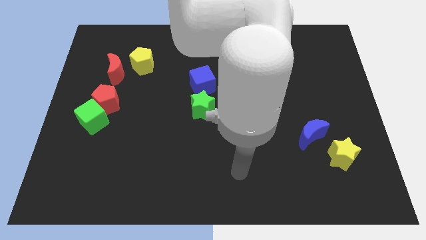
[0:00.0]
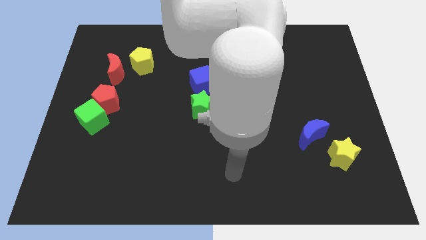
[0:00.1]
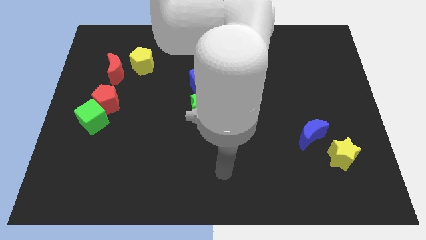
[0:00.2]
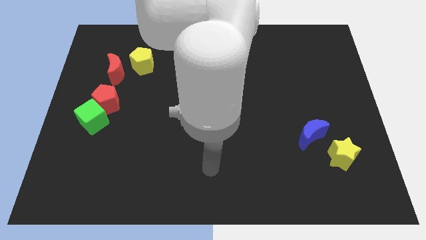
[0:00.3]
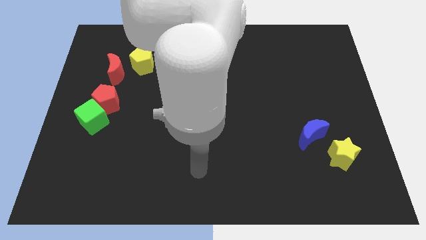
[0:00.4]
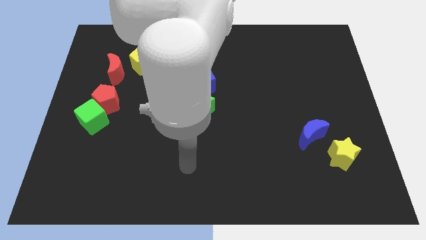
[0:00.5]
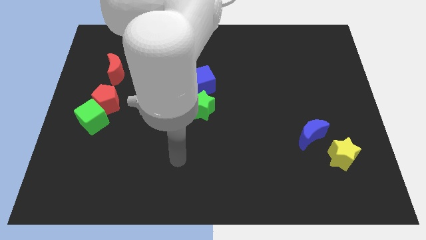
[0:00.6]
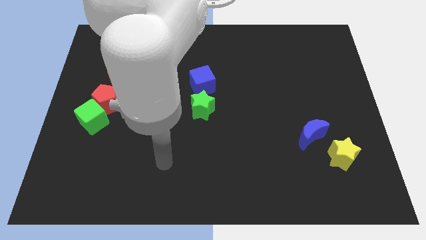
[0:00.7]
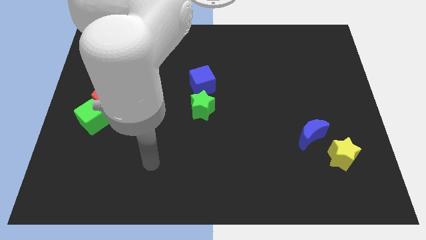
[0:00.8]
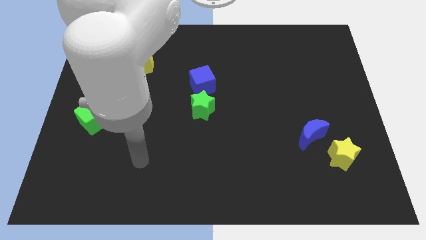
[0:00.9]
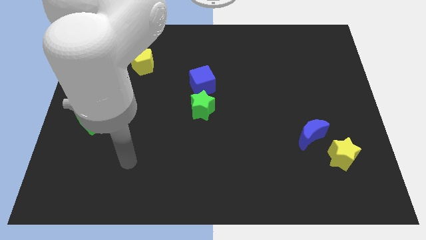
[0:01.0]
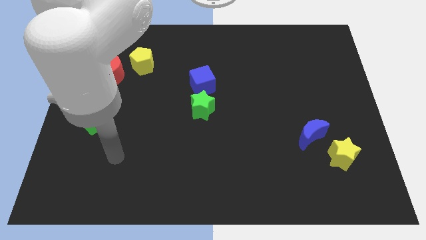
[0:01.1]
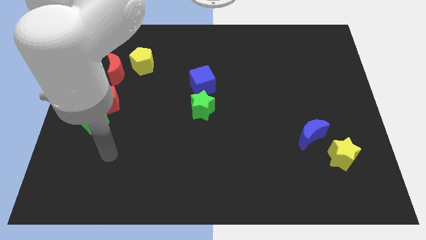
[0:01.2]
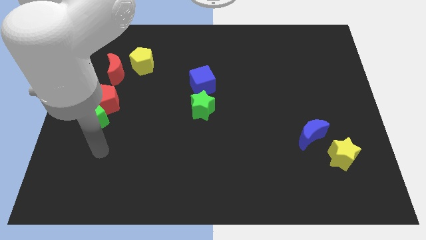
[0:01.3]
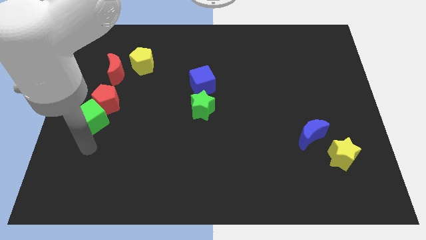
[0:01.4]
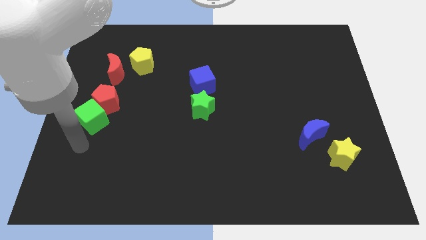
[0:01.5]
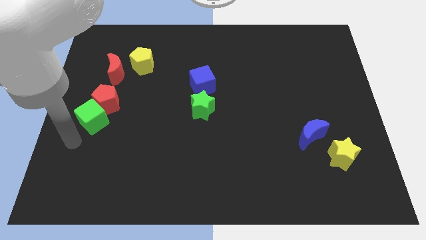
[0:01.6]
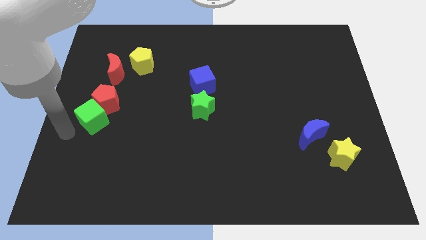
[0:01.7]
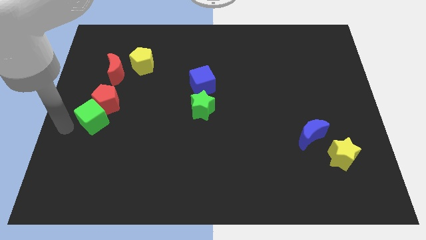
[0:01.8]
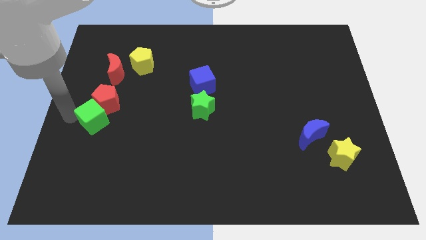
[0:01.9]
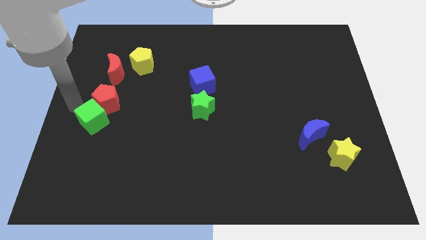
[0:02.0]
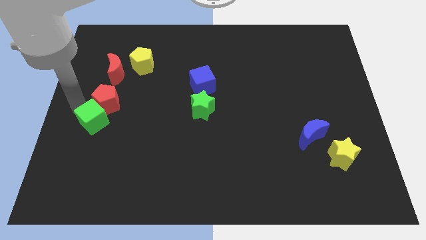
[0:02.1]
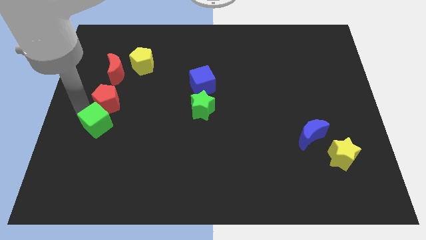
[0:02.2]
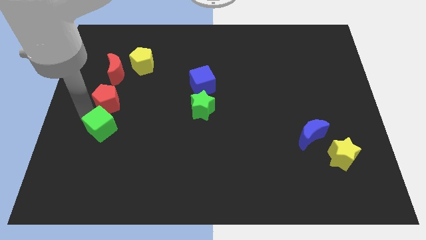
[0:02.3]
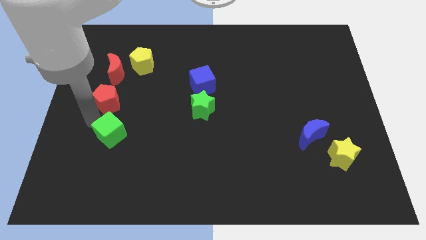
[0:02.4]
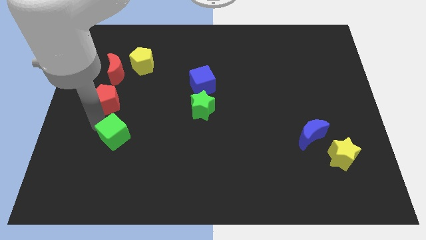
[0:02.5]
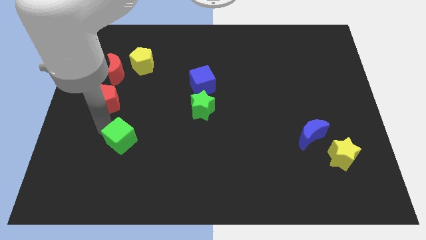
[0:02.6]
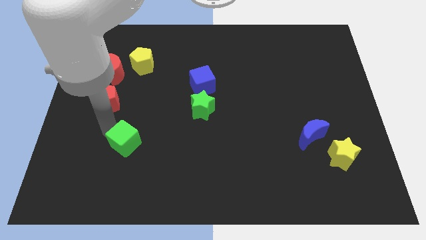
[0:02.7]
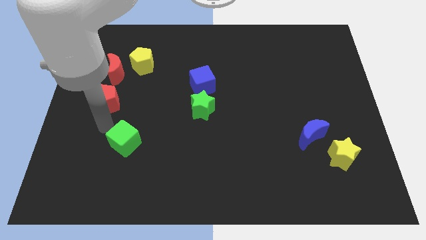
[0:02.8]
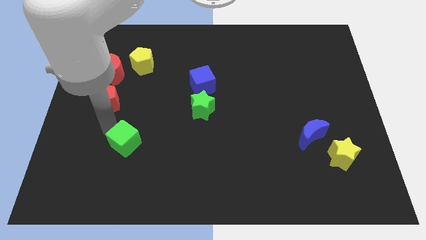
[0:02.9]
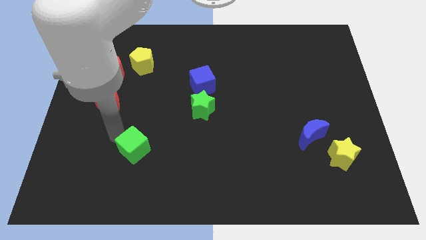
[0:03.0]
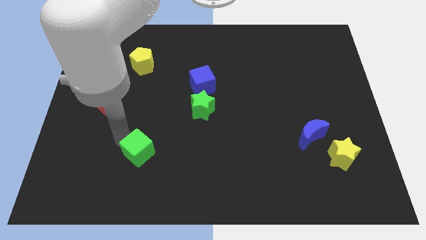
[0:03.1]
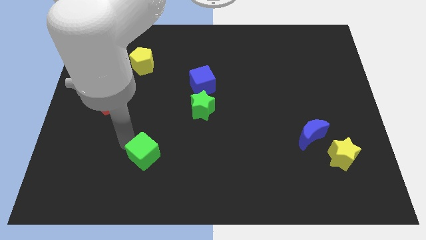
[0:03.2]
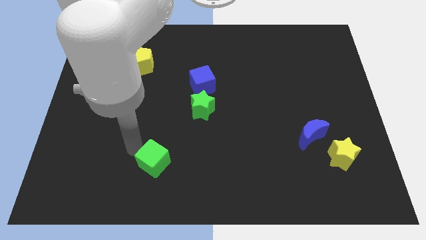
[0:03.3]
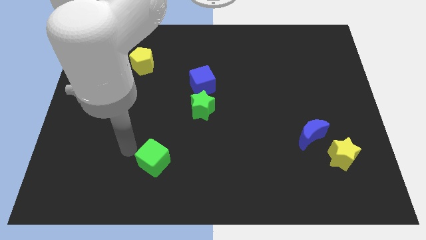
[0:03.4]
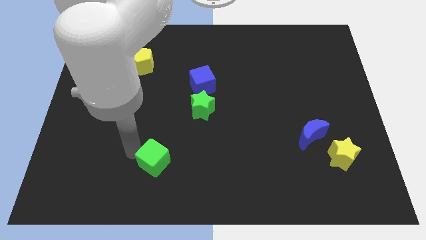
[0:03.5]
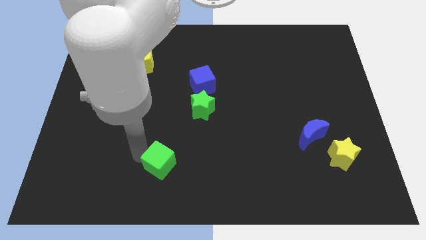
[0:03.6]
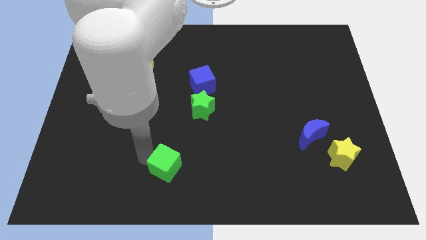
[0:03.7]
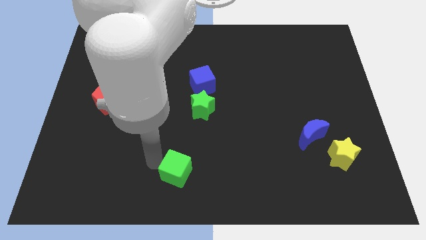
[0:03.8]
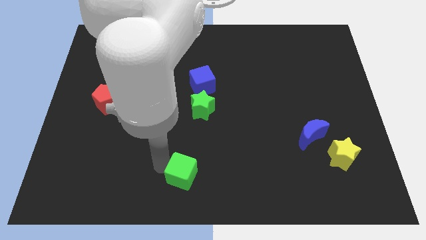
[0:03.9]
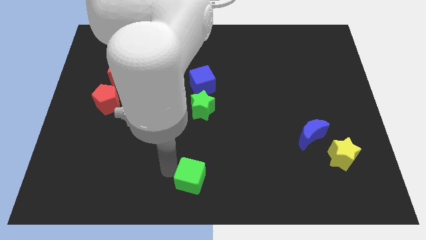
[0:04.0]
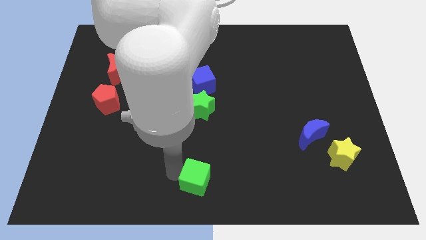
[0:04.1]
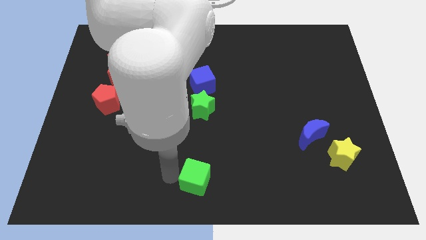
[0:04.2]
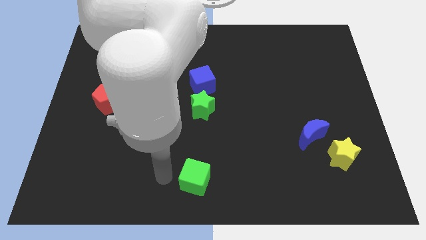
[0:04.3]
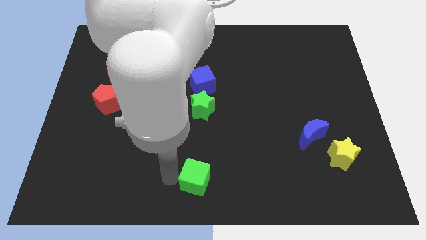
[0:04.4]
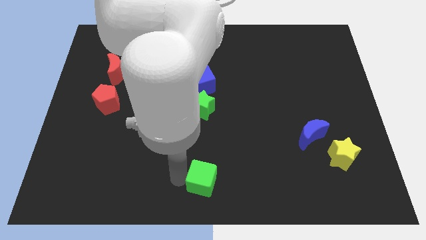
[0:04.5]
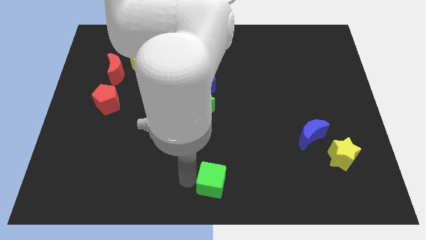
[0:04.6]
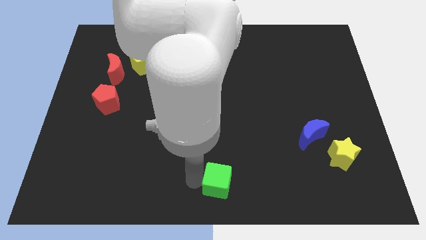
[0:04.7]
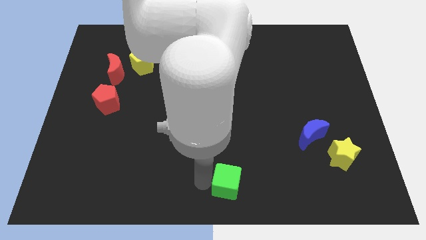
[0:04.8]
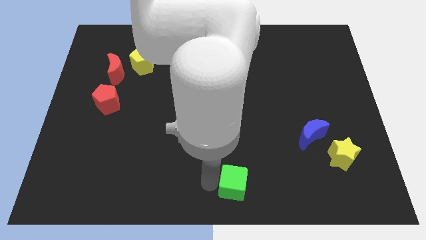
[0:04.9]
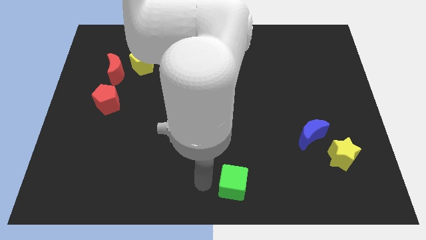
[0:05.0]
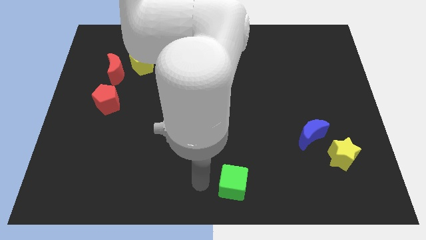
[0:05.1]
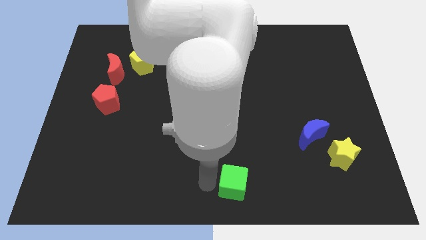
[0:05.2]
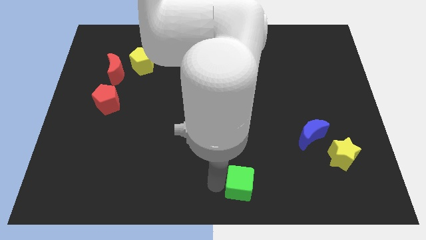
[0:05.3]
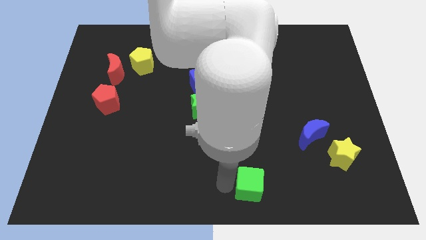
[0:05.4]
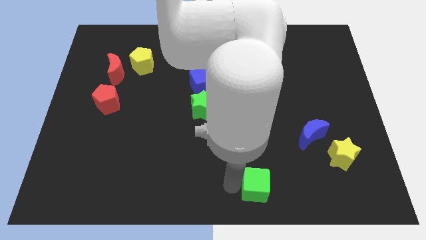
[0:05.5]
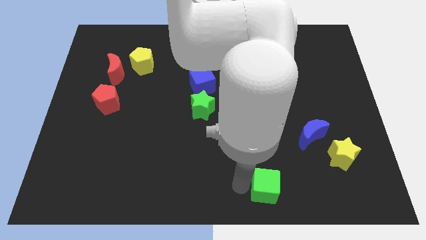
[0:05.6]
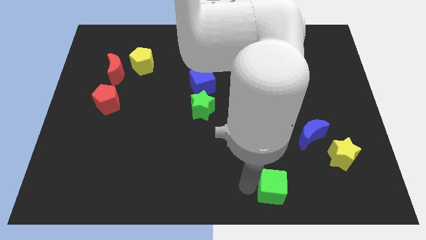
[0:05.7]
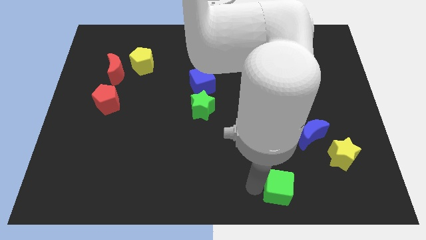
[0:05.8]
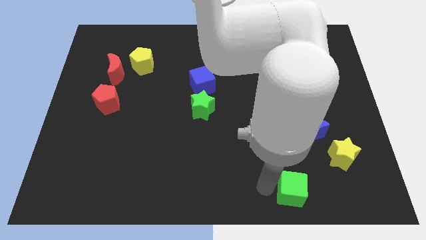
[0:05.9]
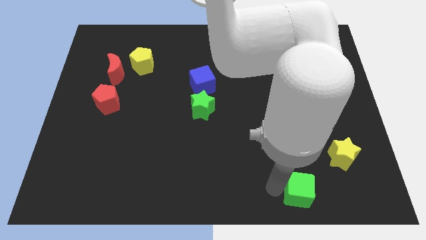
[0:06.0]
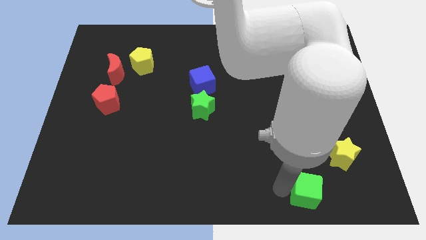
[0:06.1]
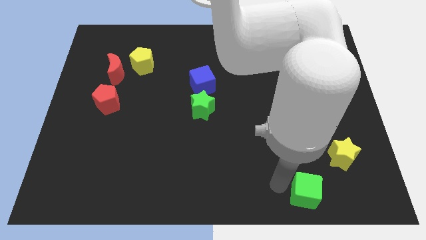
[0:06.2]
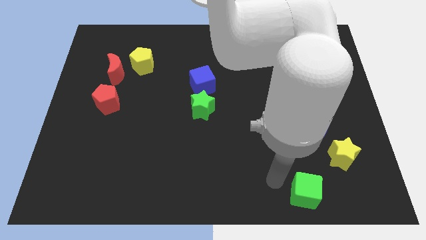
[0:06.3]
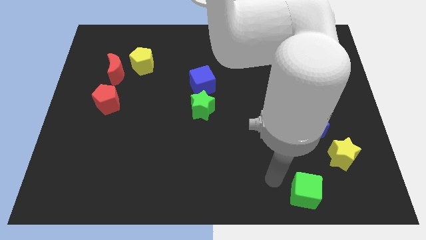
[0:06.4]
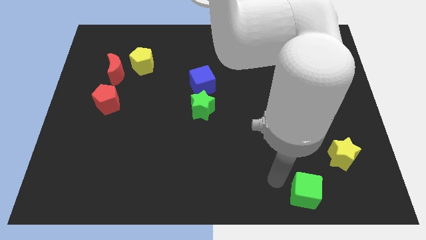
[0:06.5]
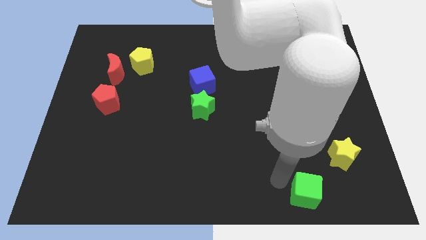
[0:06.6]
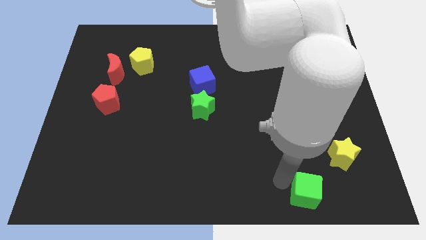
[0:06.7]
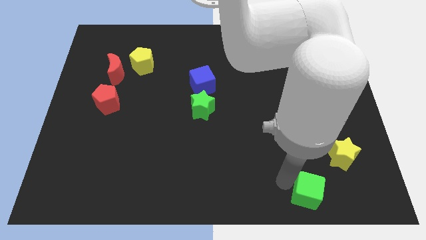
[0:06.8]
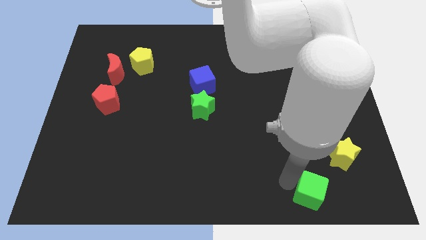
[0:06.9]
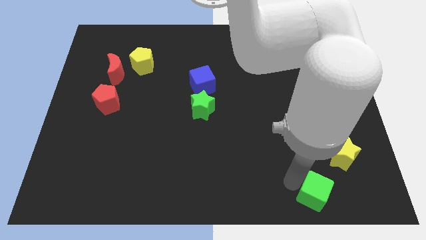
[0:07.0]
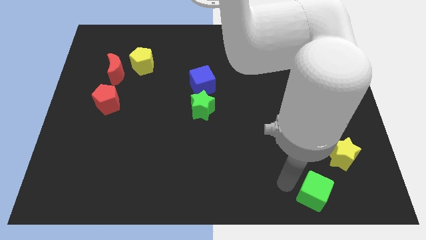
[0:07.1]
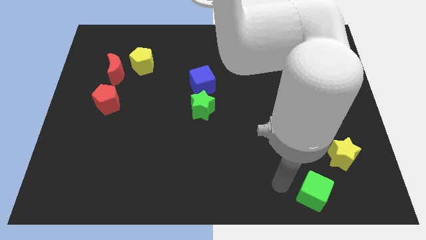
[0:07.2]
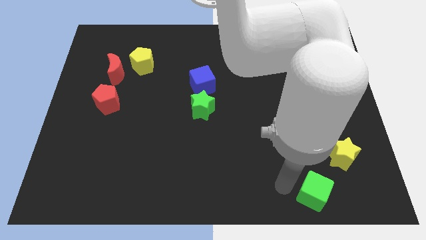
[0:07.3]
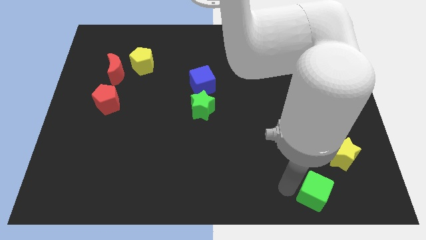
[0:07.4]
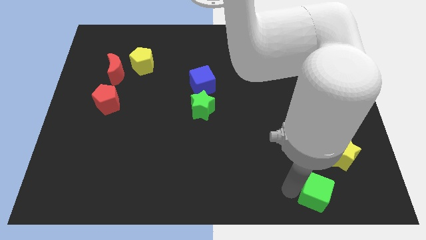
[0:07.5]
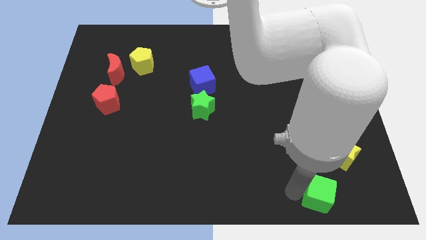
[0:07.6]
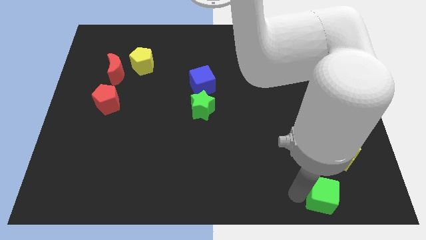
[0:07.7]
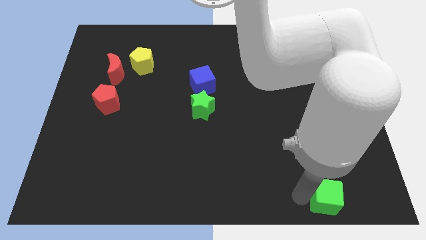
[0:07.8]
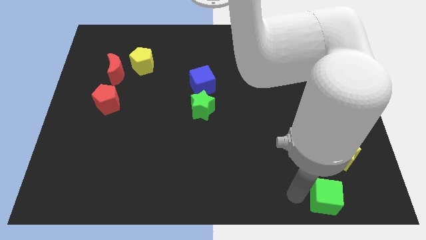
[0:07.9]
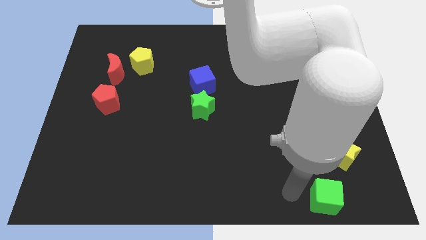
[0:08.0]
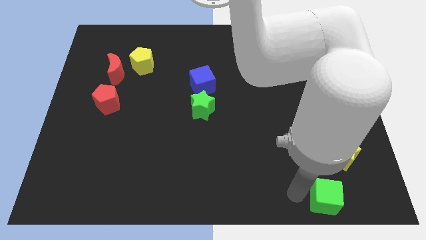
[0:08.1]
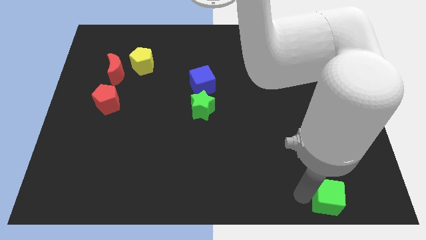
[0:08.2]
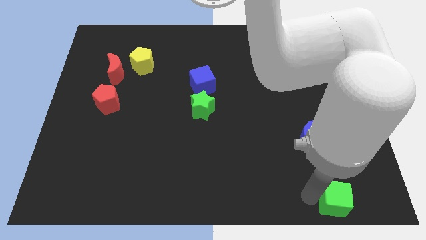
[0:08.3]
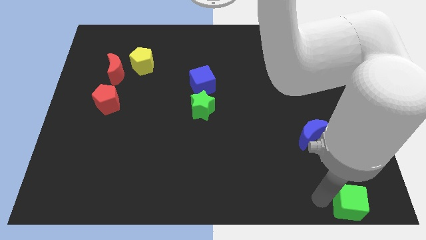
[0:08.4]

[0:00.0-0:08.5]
put the green cube to the bottom right corner
